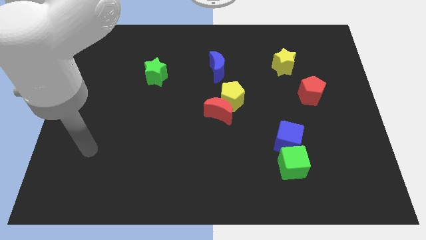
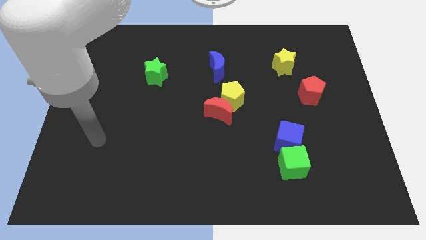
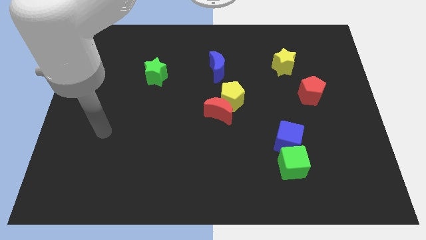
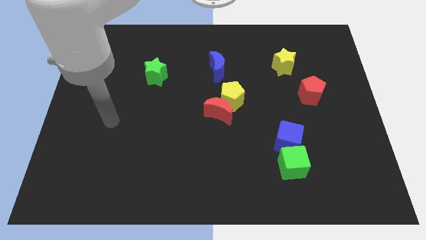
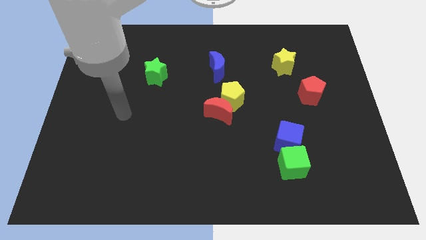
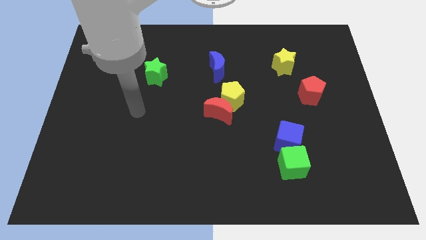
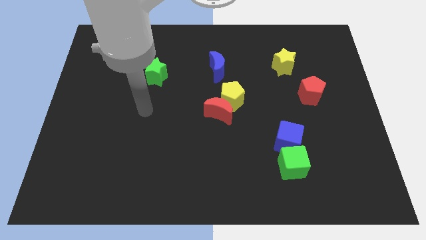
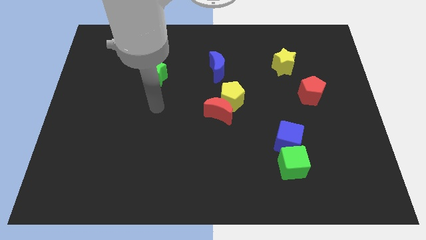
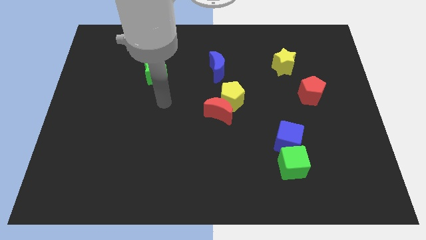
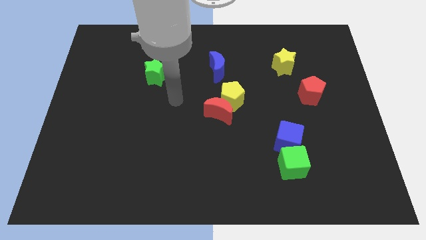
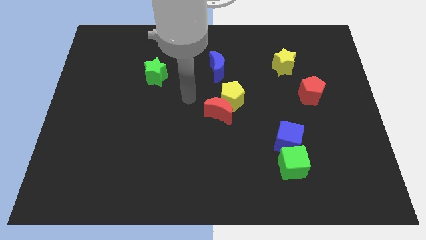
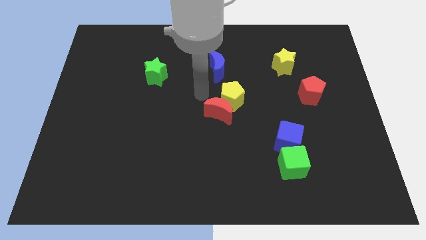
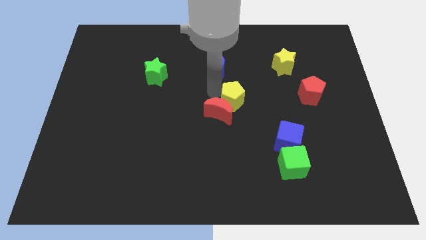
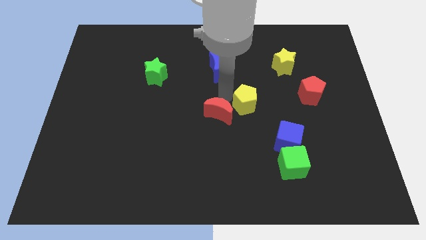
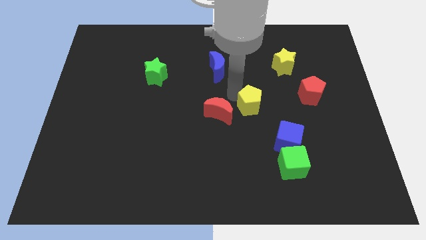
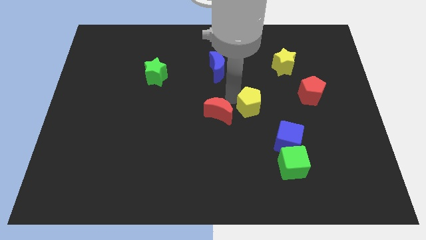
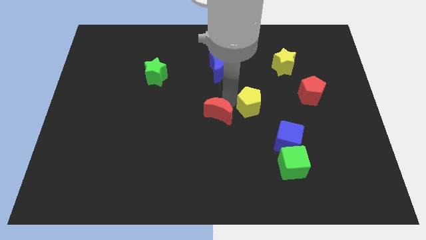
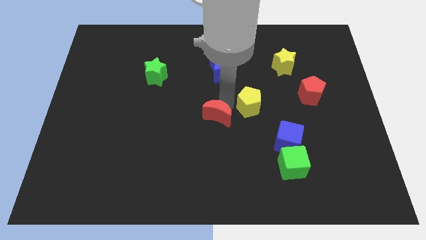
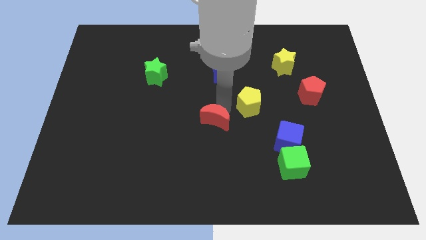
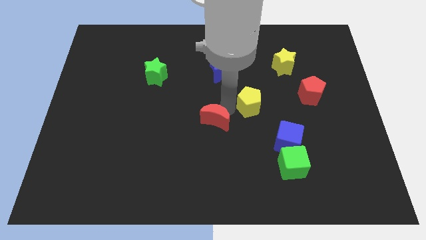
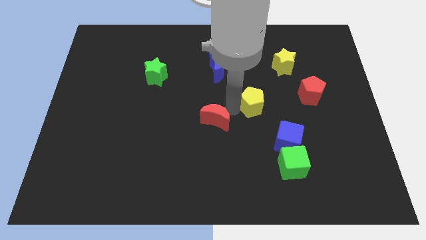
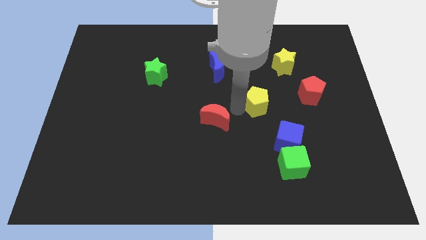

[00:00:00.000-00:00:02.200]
separate the red moon from the yellow pentagon

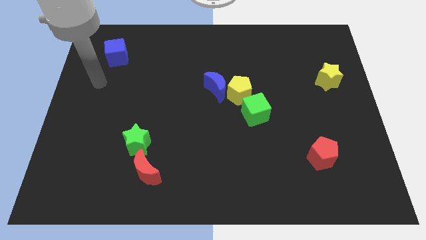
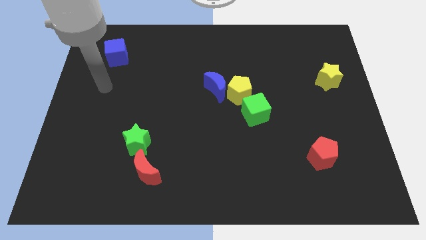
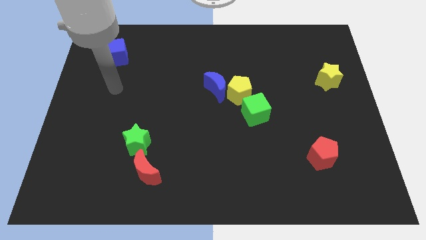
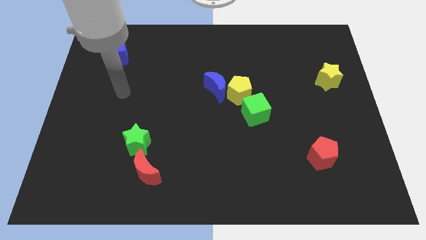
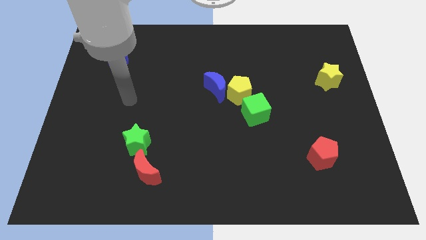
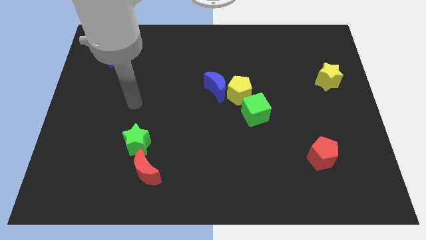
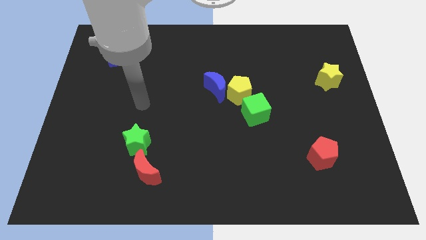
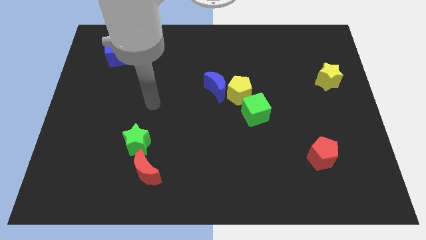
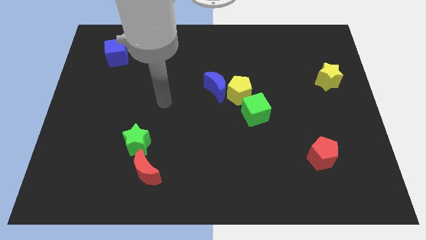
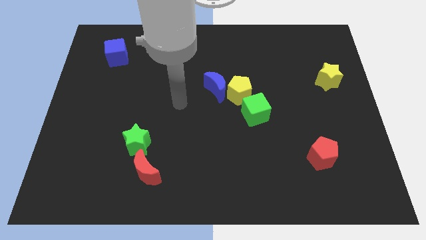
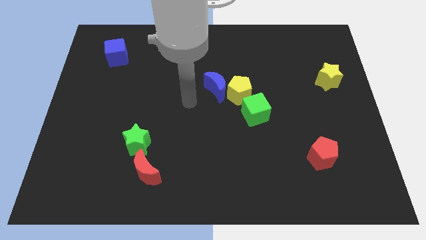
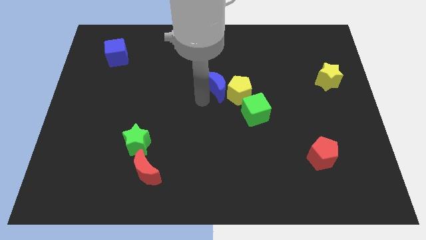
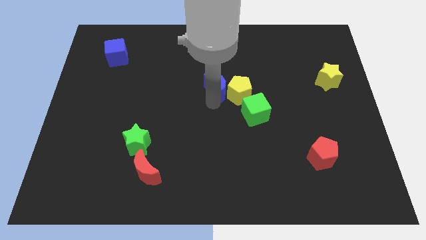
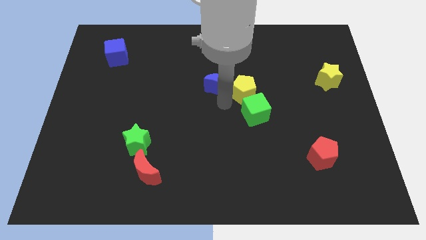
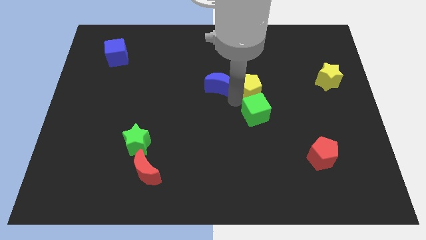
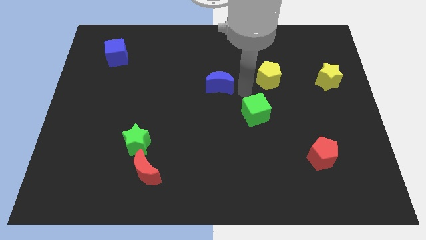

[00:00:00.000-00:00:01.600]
pull the blue moon apart from the yellow pentagon

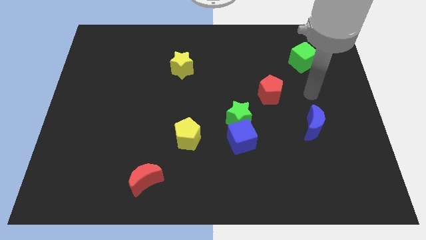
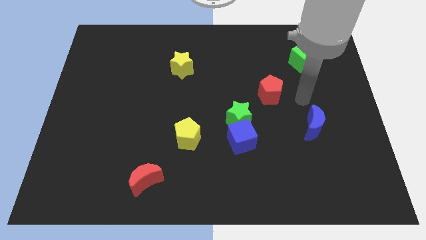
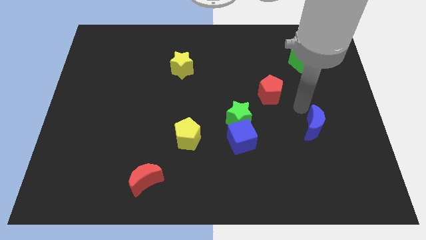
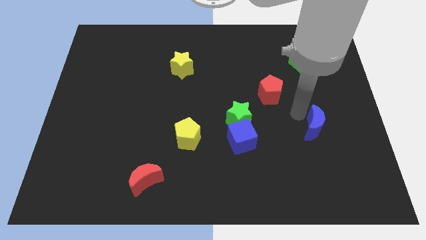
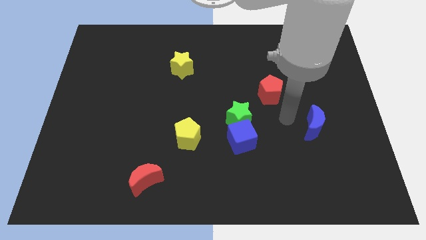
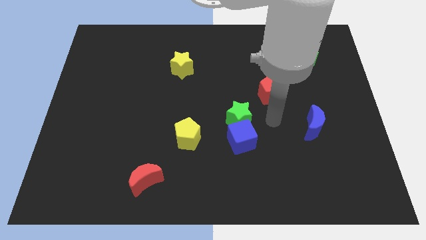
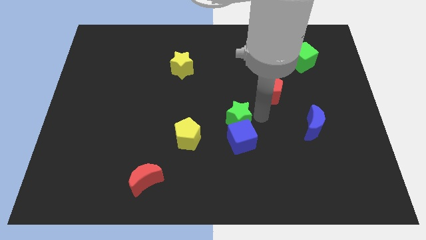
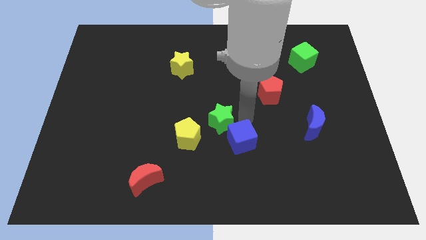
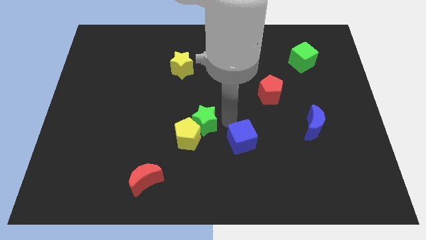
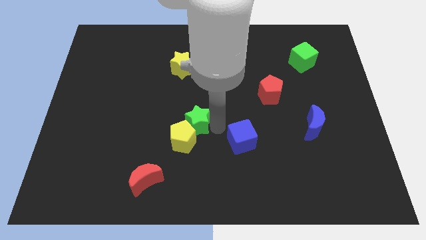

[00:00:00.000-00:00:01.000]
pull the blue cube apart from the green star

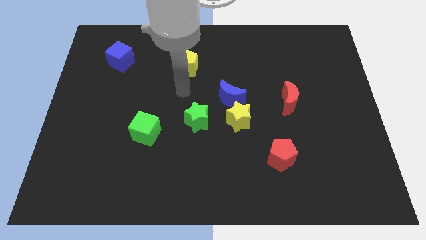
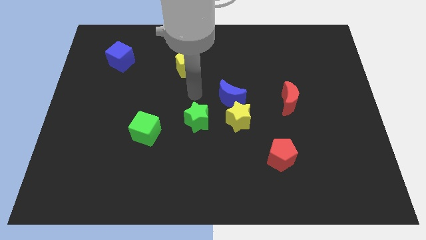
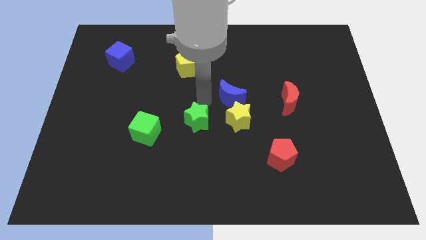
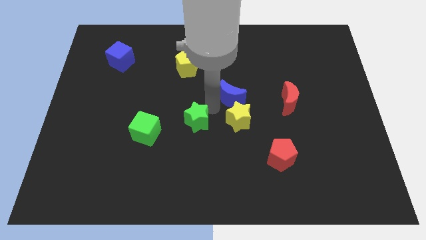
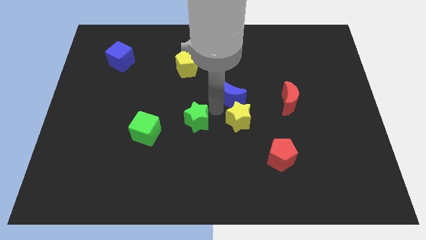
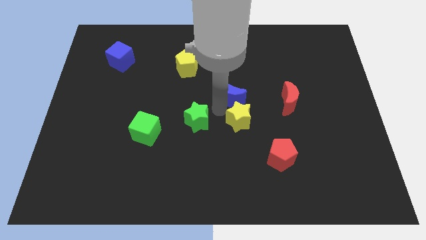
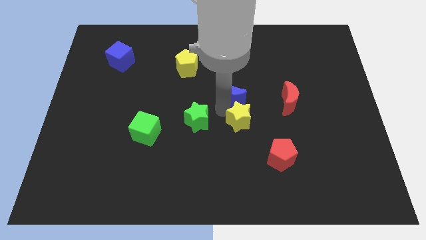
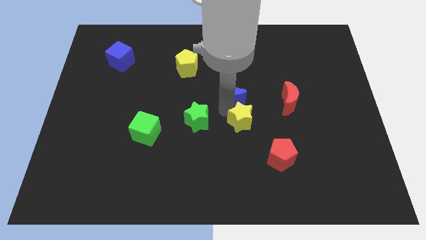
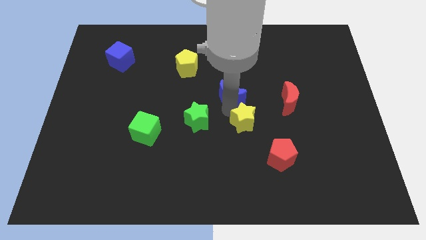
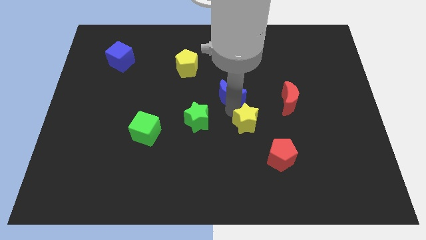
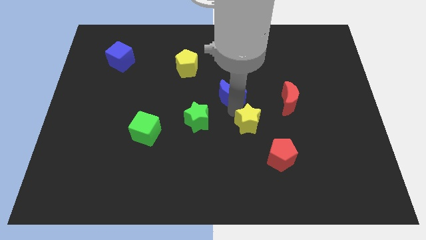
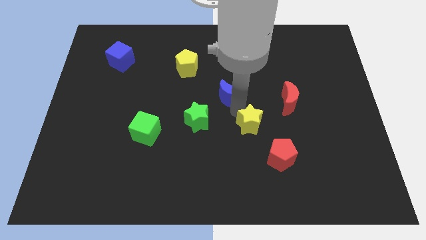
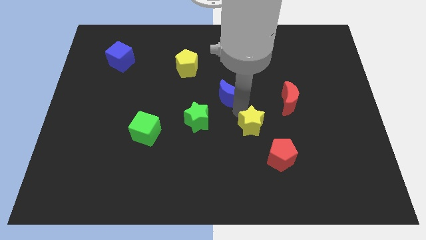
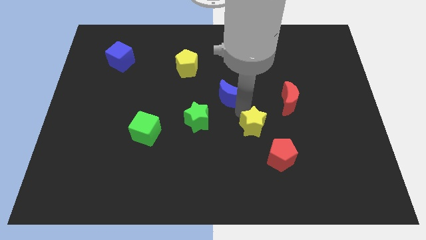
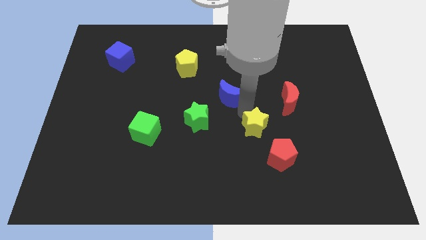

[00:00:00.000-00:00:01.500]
move the yellow star away from the blue moon and green star

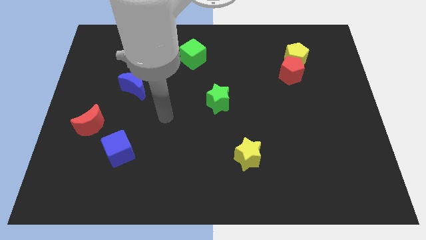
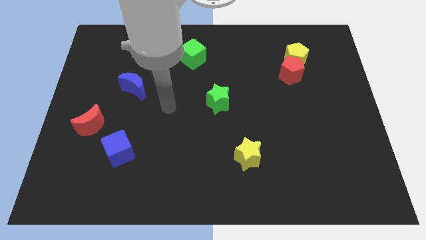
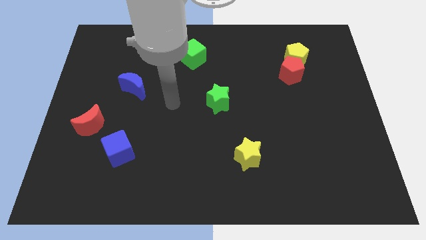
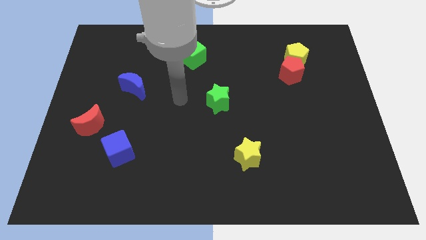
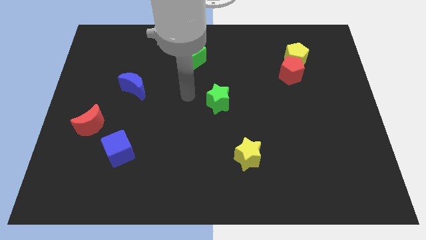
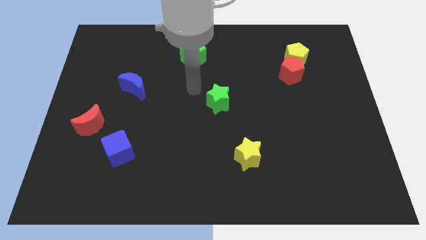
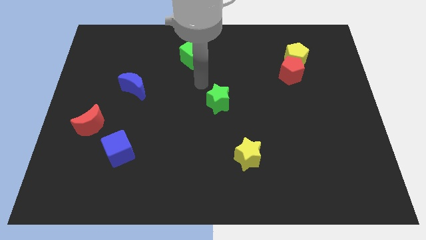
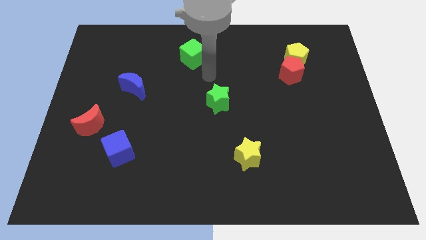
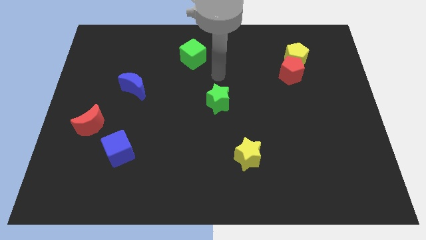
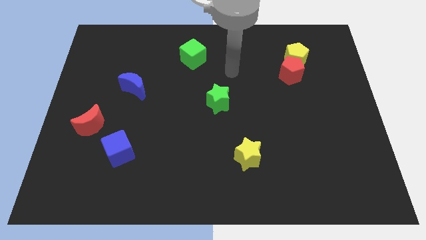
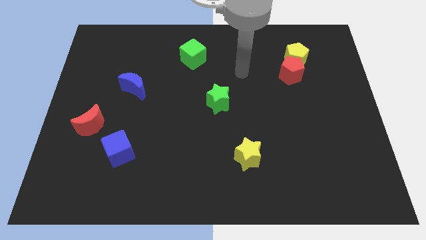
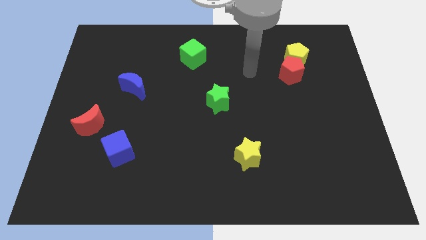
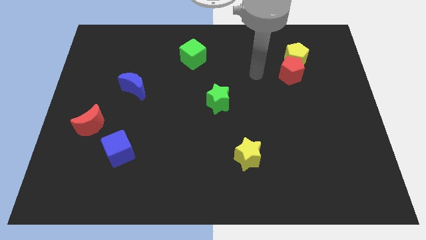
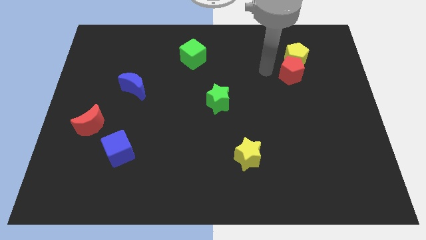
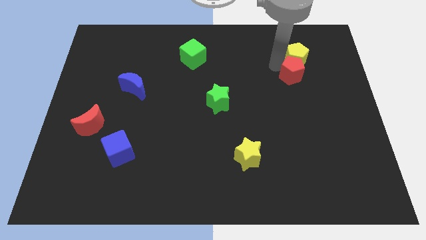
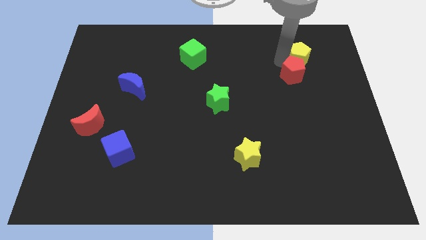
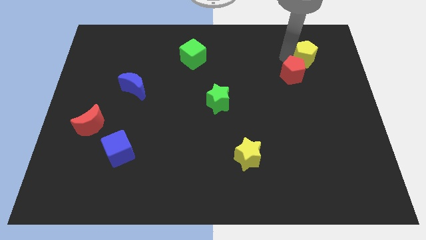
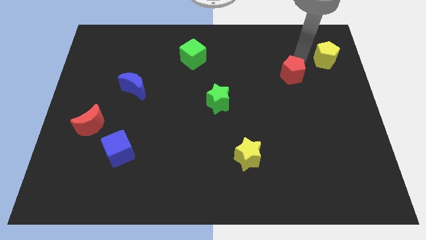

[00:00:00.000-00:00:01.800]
move the red pentagon away from the yellow pentagon

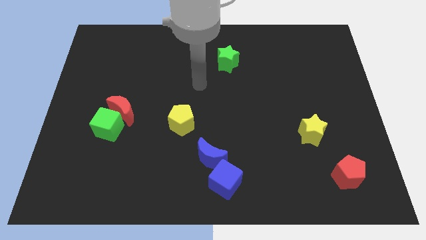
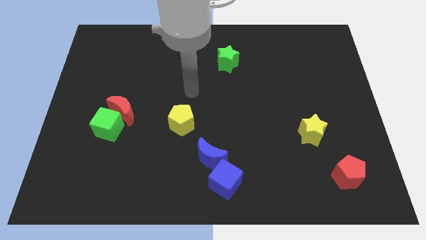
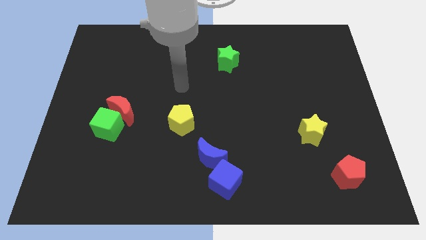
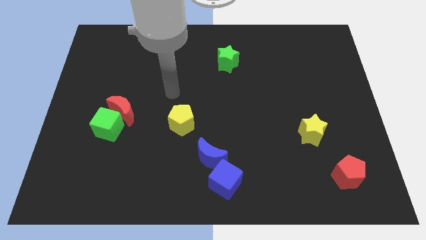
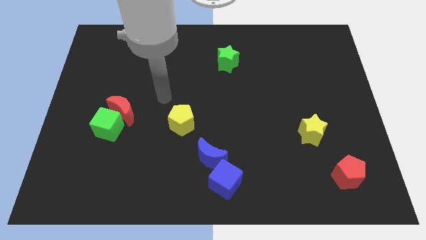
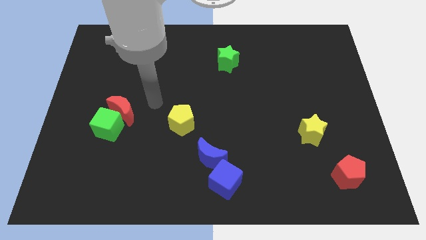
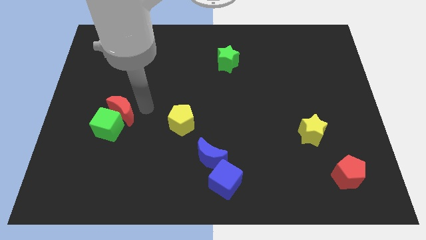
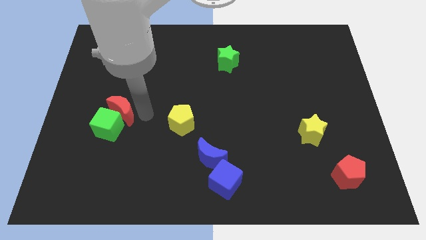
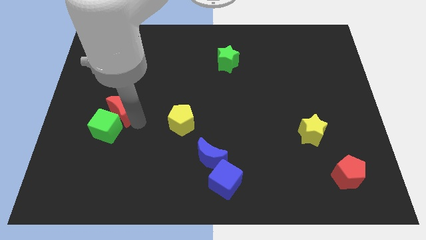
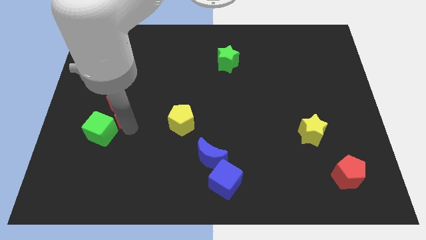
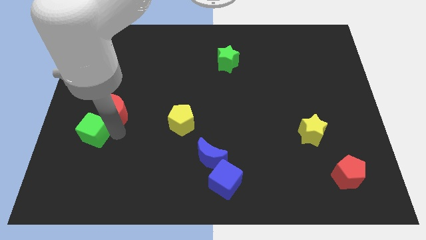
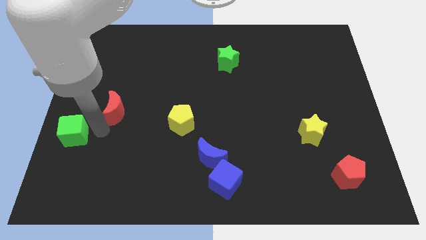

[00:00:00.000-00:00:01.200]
move the red moon away from the green cube
